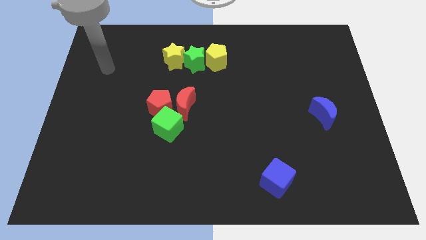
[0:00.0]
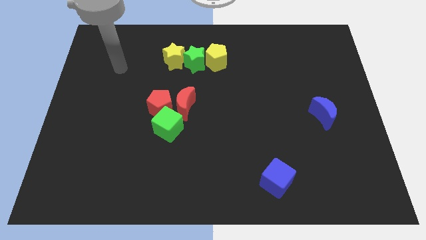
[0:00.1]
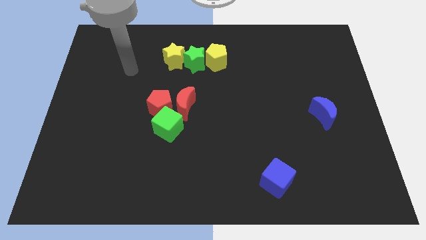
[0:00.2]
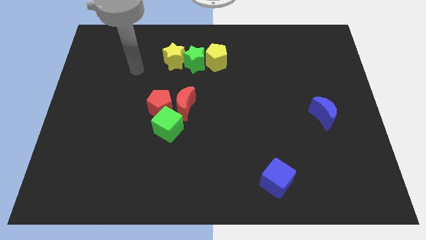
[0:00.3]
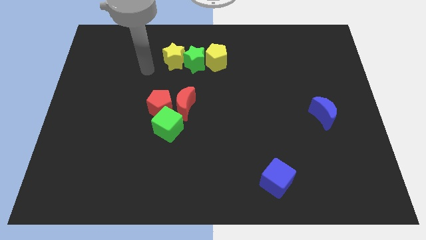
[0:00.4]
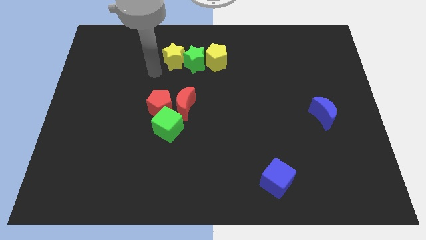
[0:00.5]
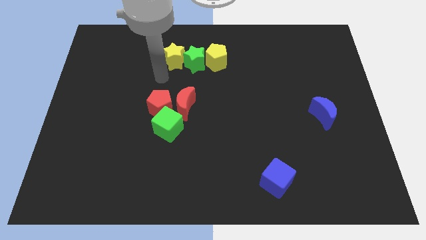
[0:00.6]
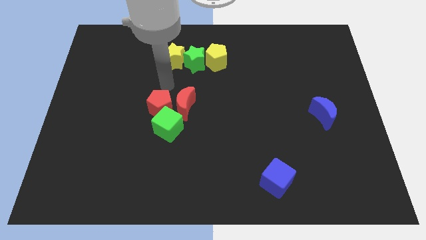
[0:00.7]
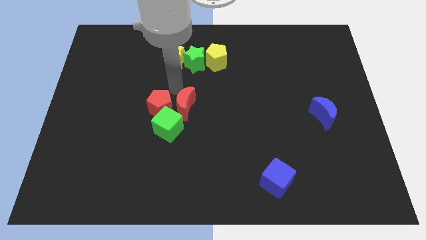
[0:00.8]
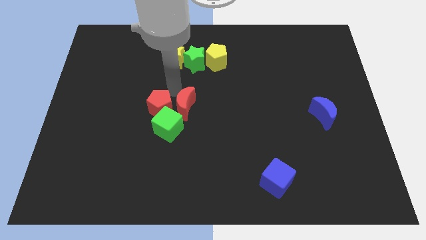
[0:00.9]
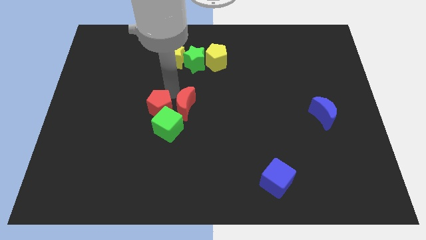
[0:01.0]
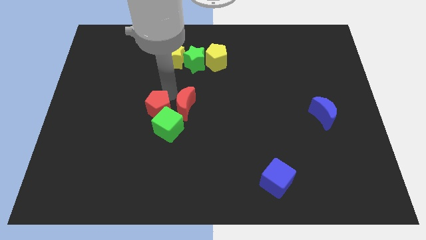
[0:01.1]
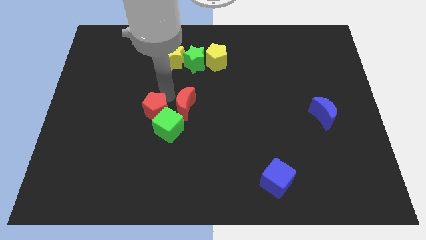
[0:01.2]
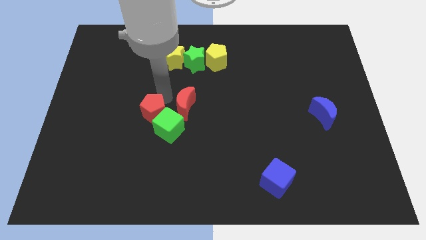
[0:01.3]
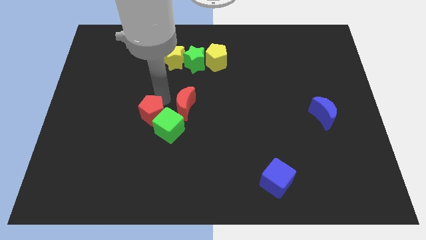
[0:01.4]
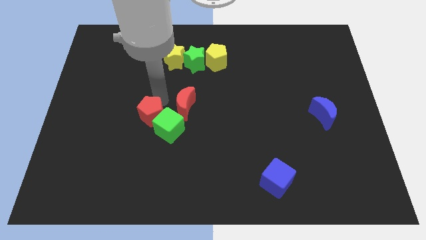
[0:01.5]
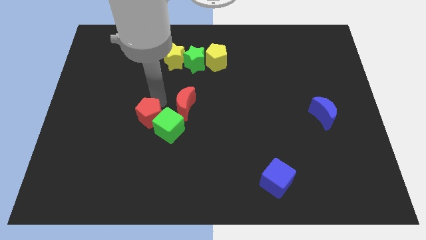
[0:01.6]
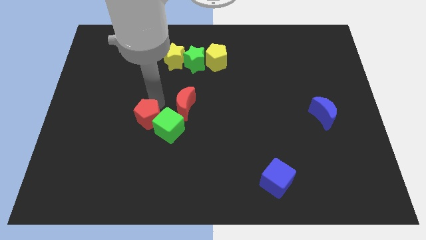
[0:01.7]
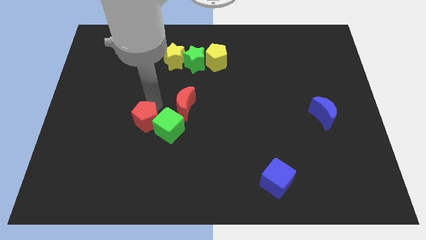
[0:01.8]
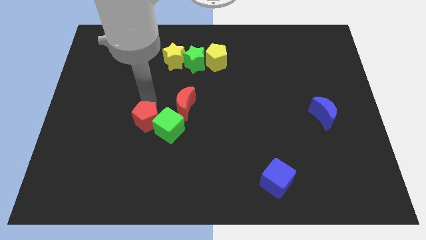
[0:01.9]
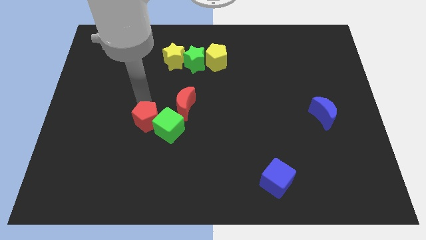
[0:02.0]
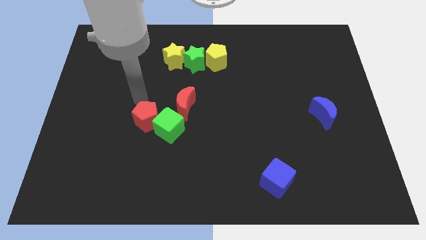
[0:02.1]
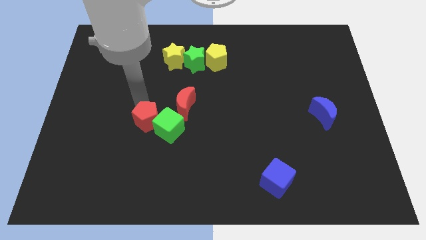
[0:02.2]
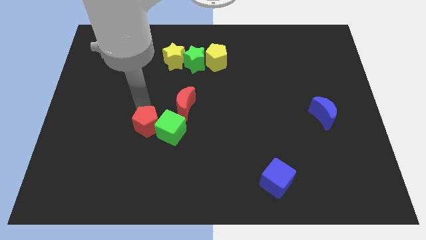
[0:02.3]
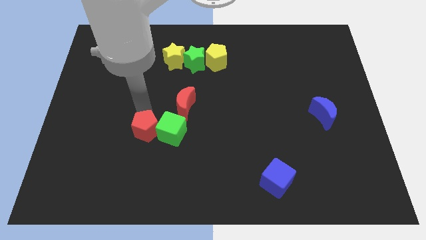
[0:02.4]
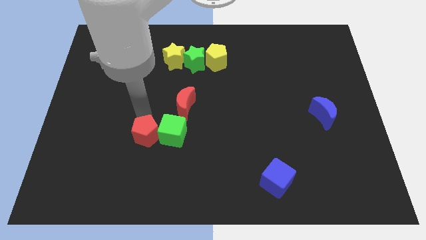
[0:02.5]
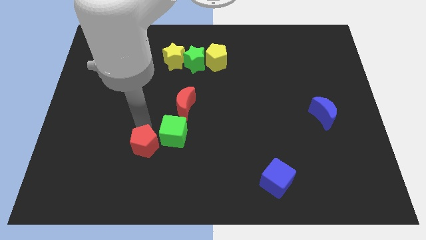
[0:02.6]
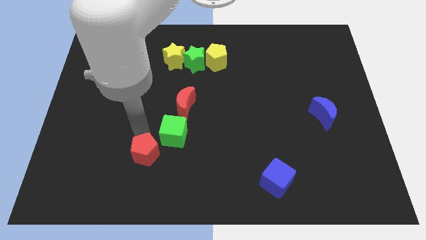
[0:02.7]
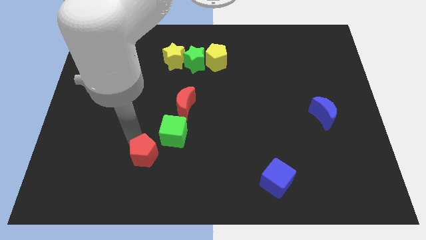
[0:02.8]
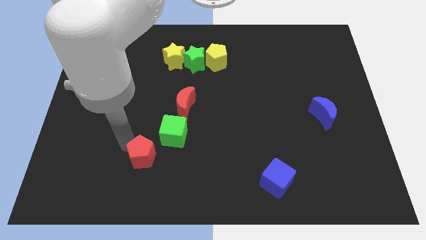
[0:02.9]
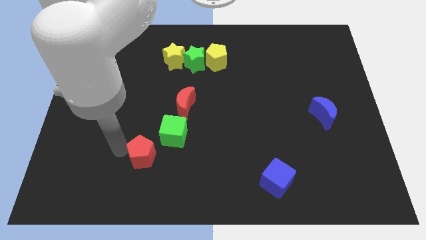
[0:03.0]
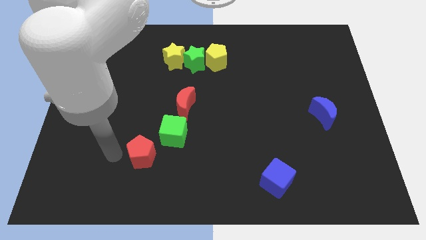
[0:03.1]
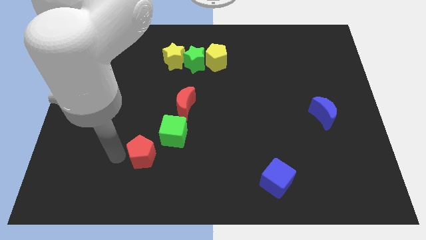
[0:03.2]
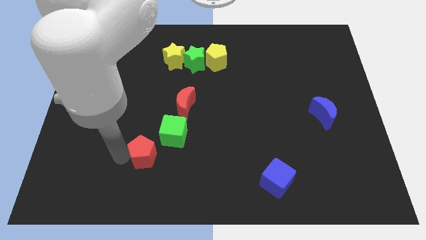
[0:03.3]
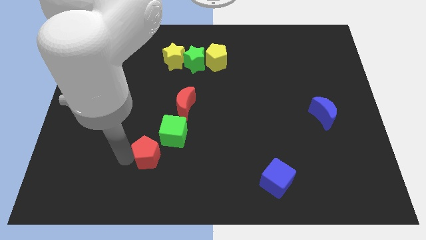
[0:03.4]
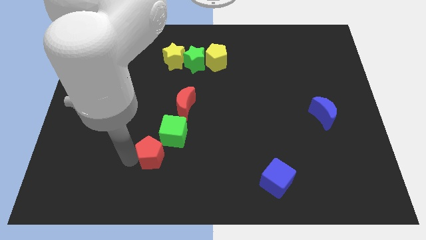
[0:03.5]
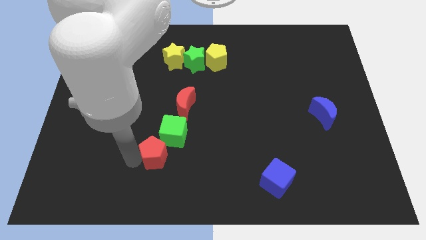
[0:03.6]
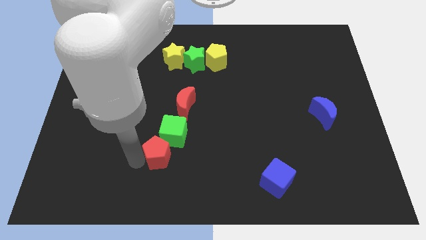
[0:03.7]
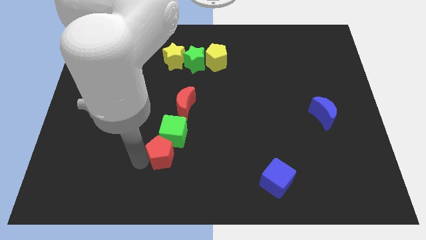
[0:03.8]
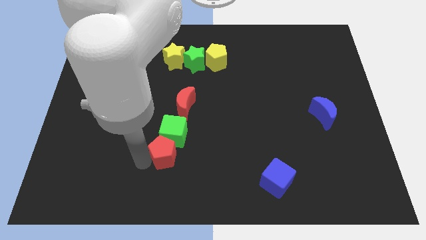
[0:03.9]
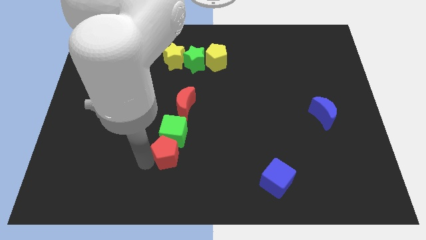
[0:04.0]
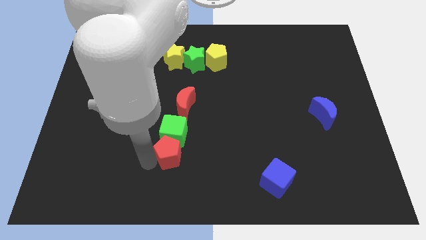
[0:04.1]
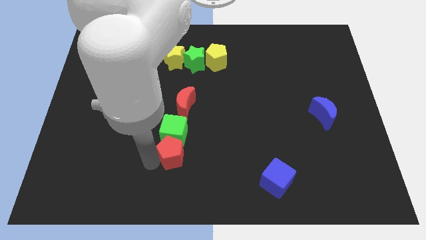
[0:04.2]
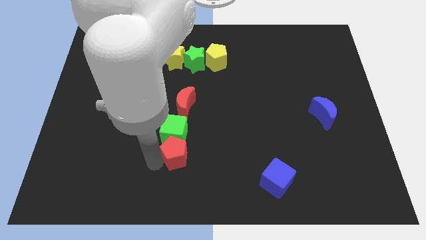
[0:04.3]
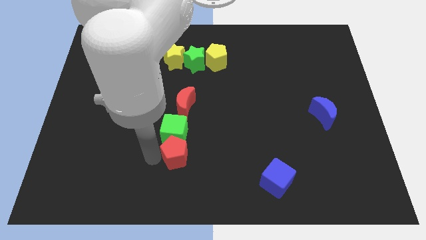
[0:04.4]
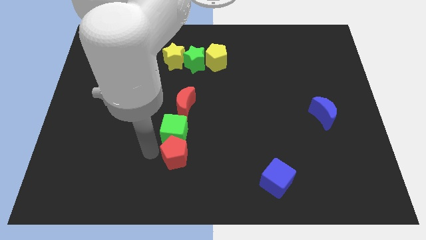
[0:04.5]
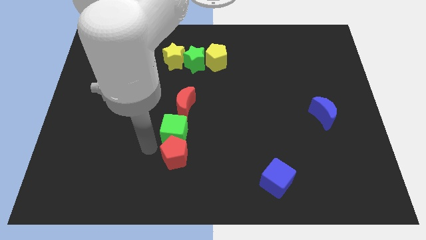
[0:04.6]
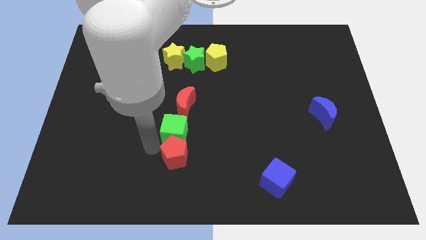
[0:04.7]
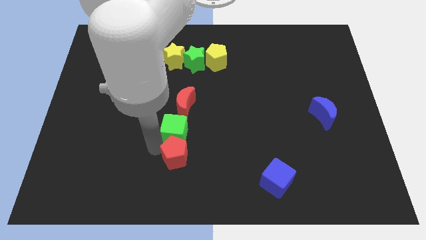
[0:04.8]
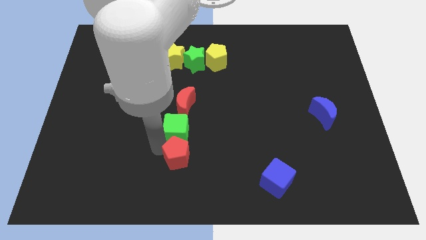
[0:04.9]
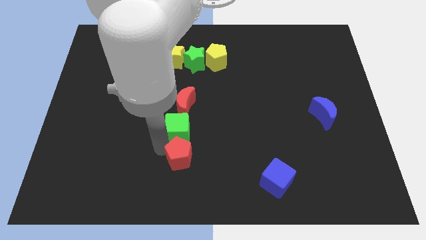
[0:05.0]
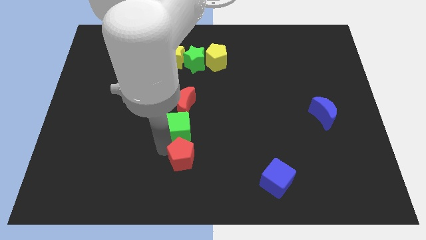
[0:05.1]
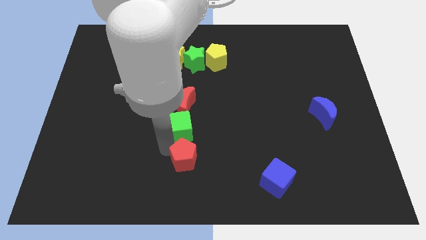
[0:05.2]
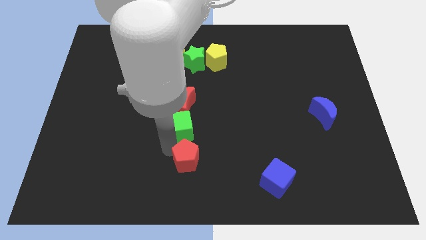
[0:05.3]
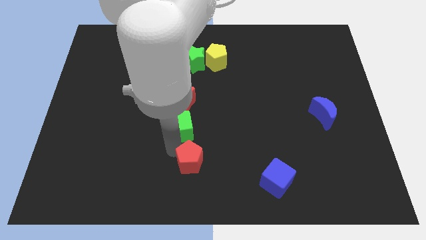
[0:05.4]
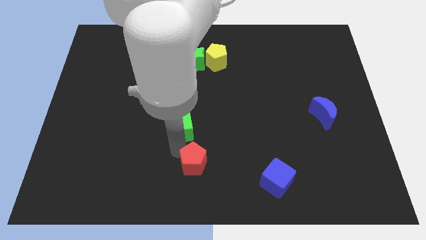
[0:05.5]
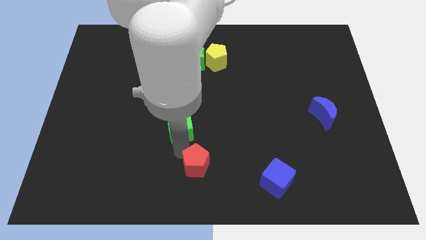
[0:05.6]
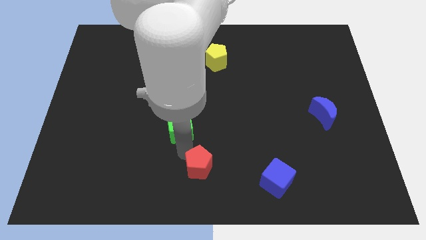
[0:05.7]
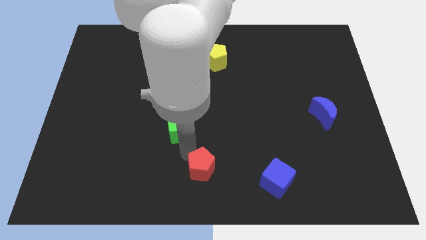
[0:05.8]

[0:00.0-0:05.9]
push the red pentagon to the left of the blue cube

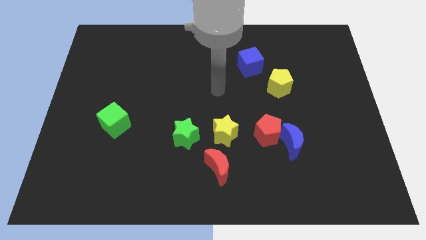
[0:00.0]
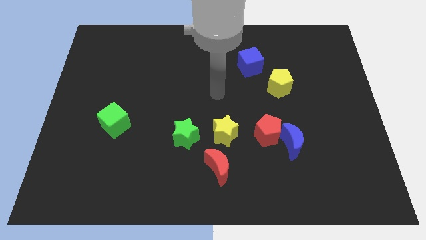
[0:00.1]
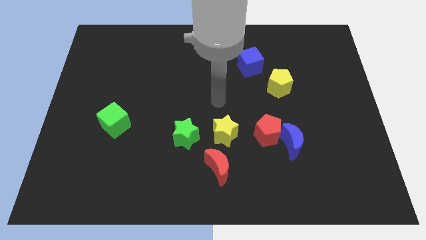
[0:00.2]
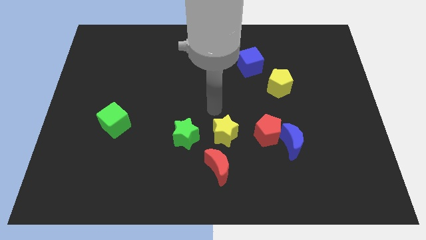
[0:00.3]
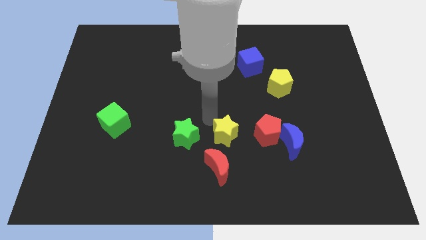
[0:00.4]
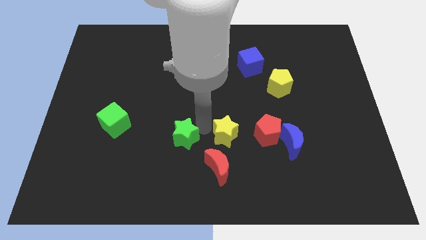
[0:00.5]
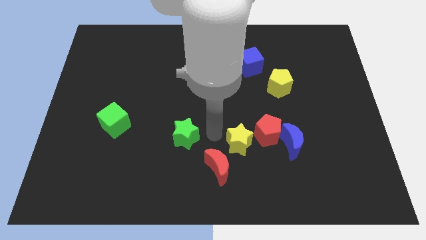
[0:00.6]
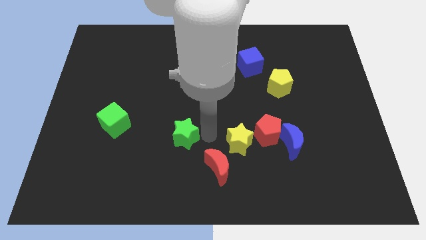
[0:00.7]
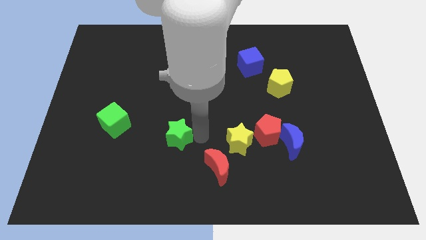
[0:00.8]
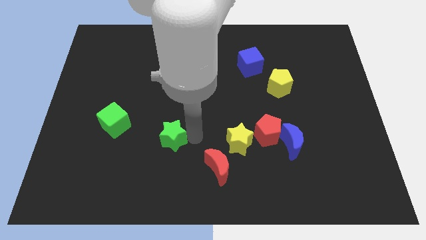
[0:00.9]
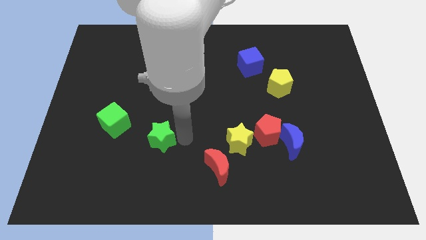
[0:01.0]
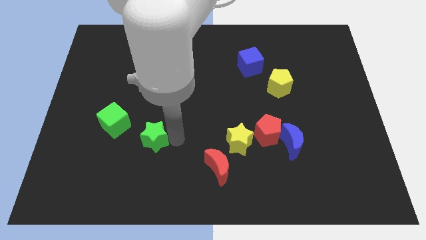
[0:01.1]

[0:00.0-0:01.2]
put the green star to the bottom right of the green cube

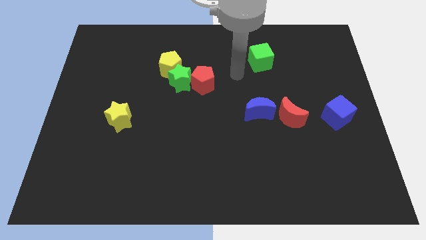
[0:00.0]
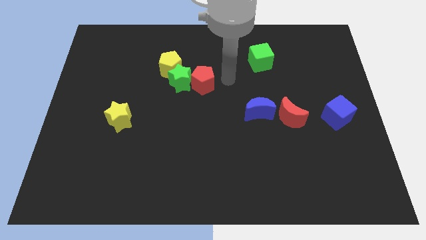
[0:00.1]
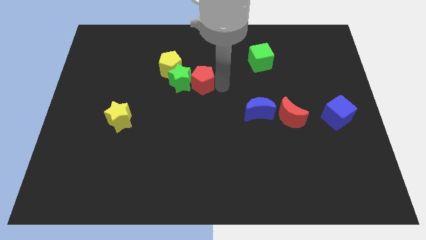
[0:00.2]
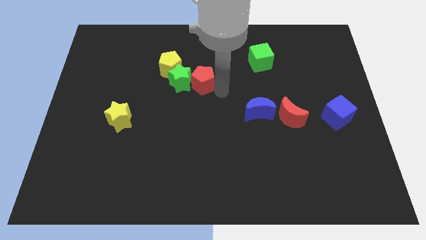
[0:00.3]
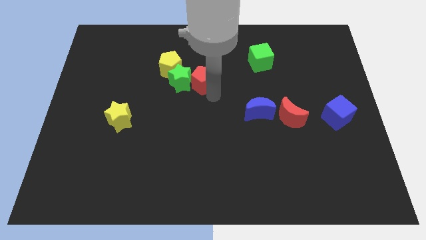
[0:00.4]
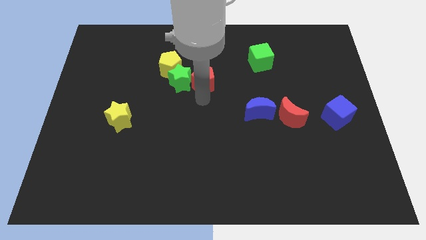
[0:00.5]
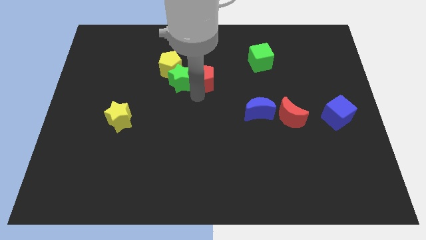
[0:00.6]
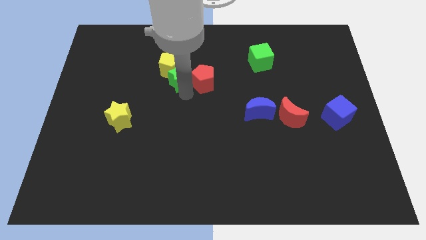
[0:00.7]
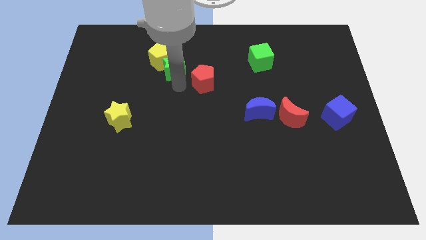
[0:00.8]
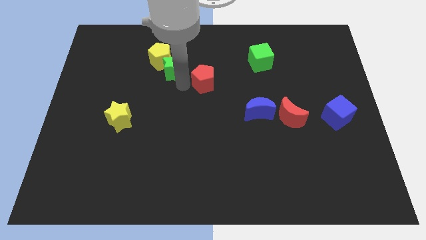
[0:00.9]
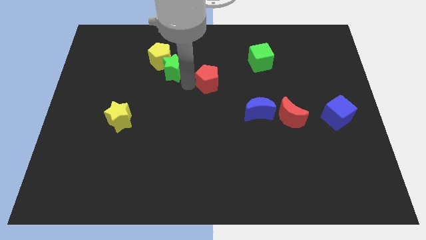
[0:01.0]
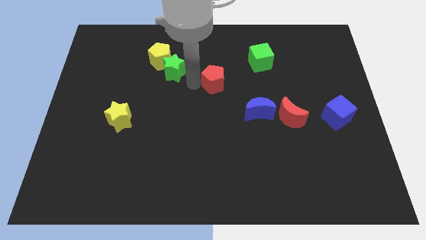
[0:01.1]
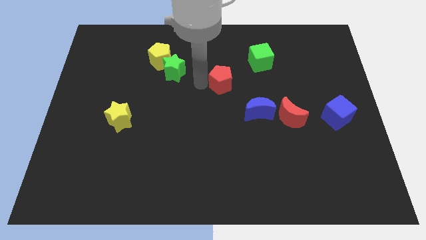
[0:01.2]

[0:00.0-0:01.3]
push the red pentagon to the bottom left of the green cube
